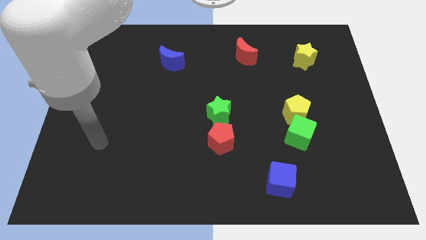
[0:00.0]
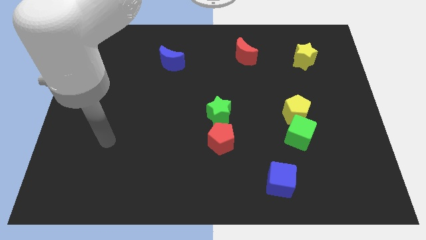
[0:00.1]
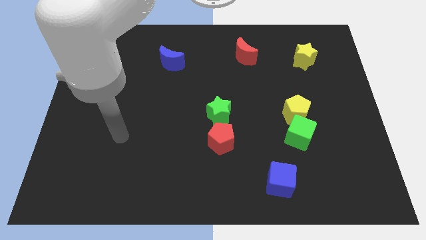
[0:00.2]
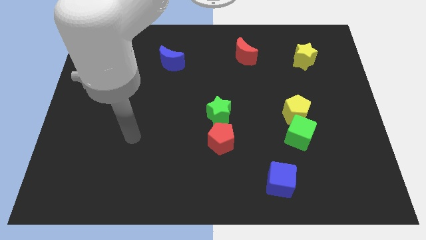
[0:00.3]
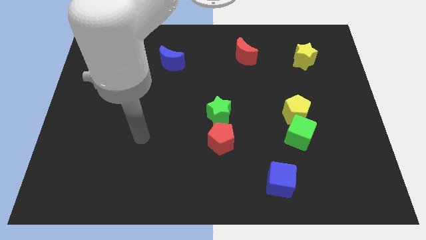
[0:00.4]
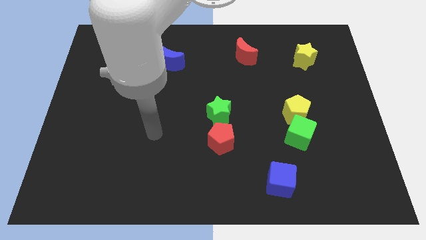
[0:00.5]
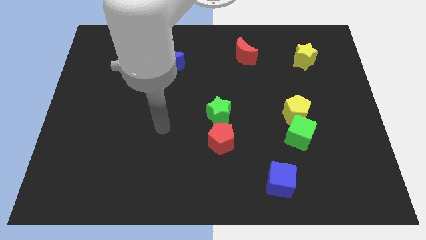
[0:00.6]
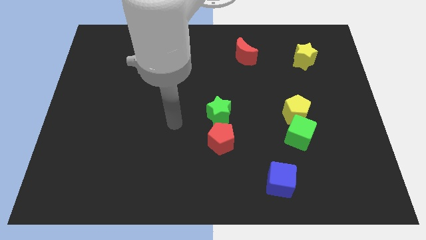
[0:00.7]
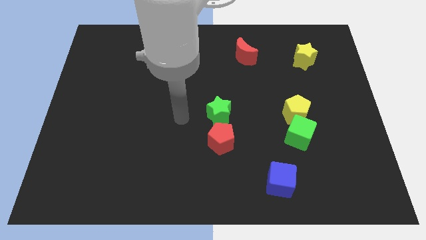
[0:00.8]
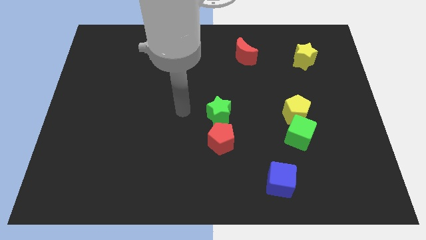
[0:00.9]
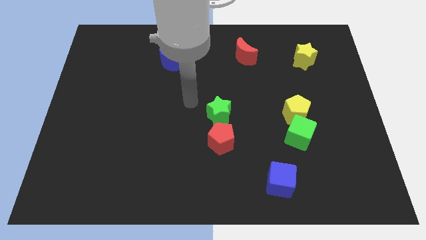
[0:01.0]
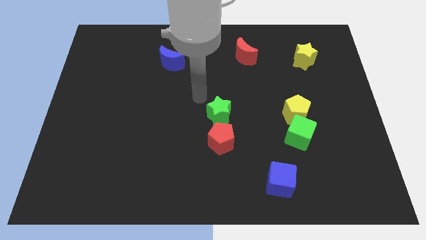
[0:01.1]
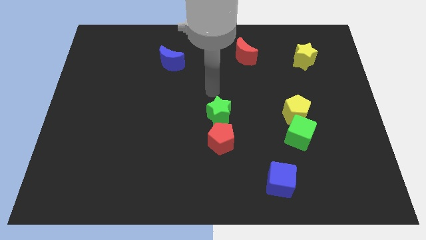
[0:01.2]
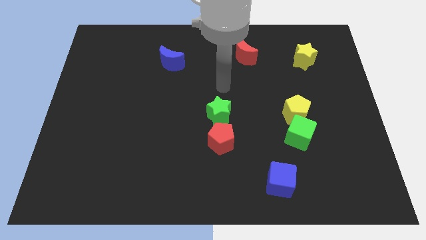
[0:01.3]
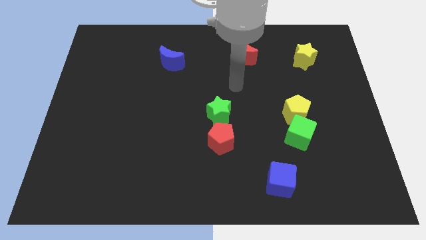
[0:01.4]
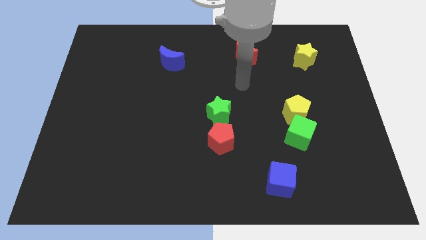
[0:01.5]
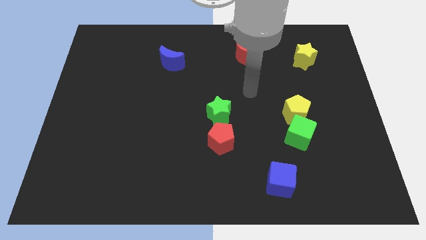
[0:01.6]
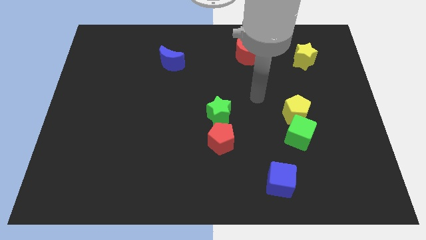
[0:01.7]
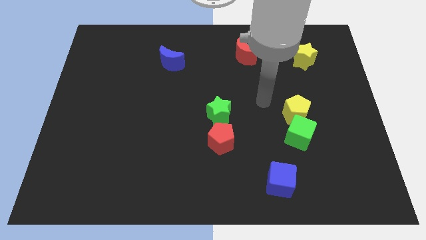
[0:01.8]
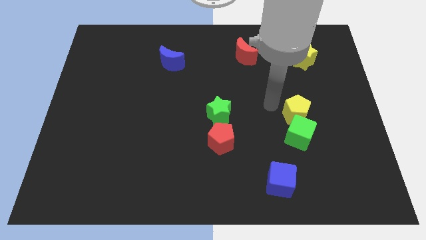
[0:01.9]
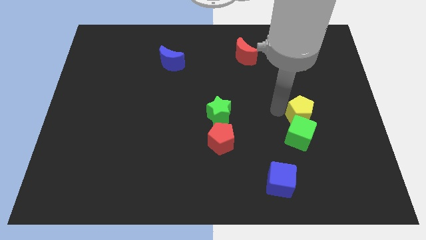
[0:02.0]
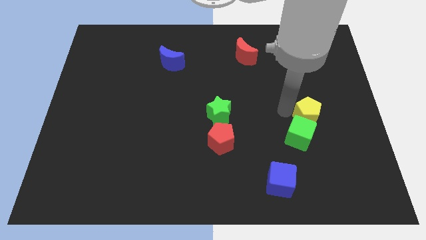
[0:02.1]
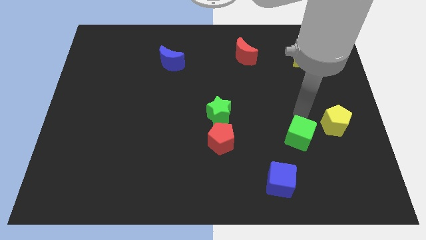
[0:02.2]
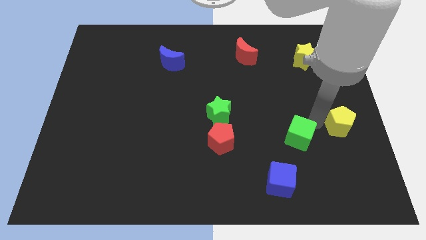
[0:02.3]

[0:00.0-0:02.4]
separate the green cube from the yellow pentagon

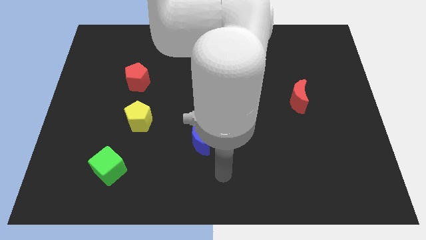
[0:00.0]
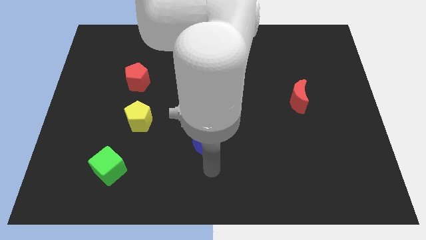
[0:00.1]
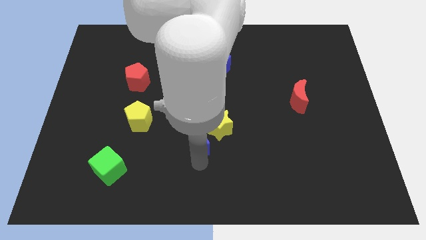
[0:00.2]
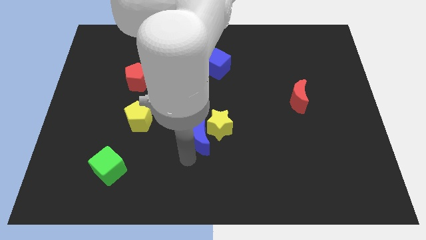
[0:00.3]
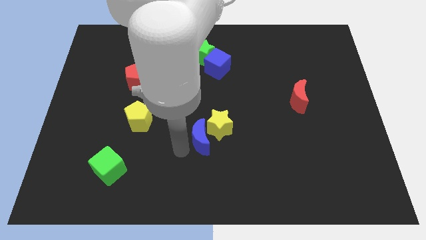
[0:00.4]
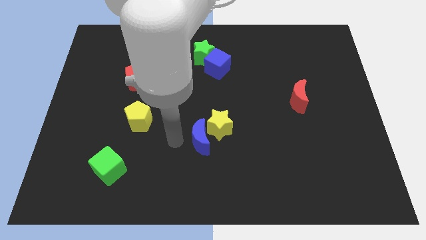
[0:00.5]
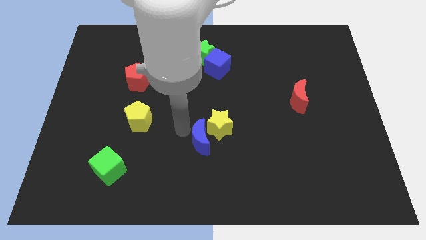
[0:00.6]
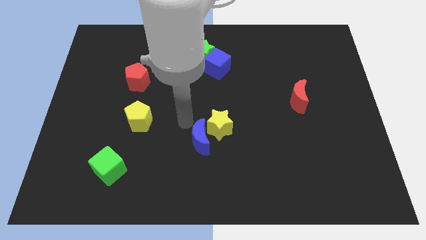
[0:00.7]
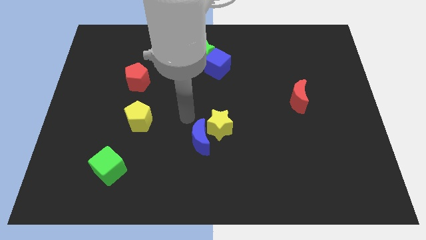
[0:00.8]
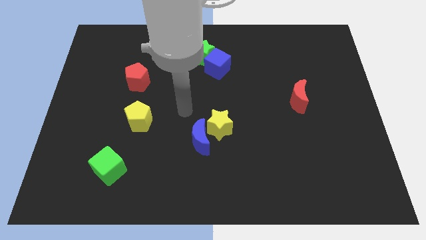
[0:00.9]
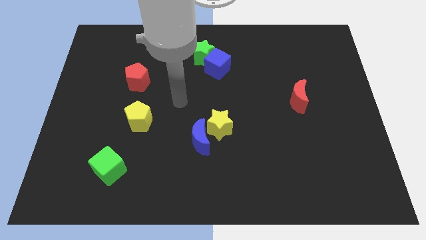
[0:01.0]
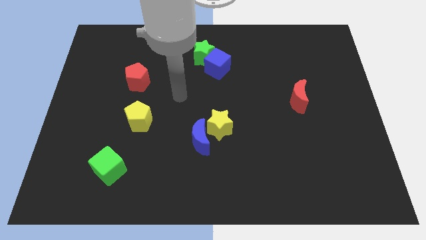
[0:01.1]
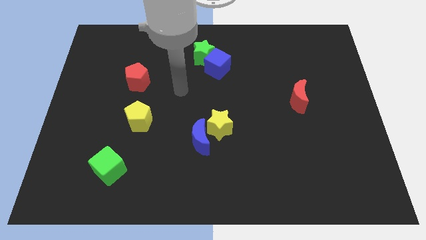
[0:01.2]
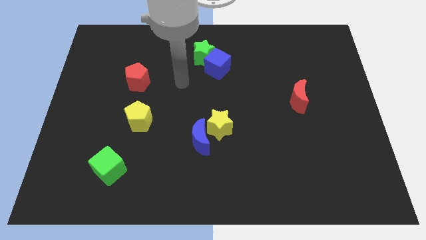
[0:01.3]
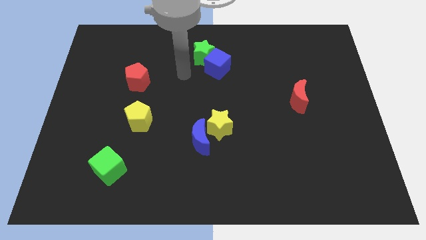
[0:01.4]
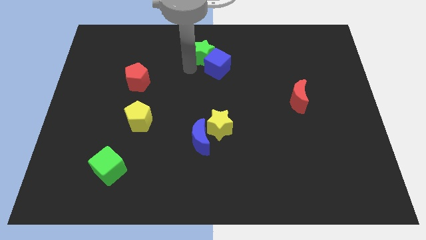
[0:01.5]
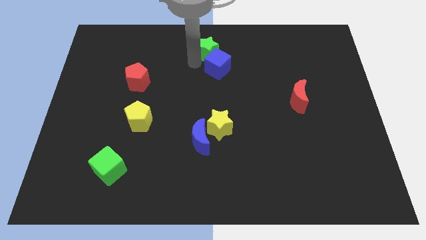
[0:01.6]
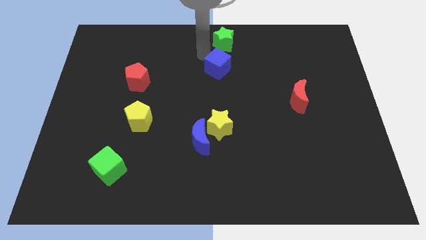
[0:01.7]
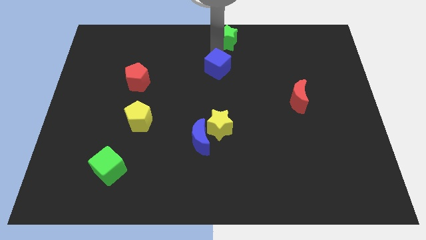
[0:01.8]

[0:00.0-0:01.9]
separate the blue cube from the green star

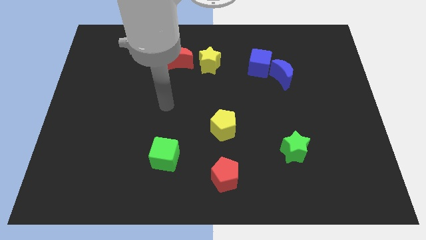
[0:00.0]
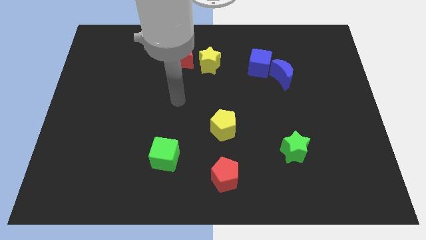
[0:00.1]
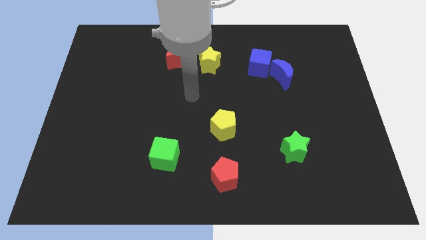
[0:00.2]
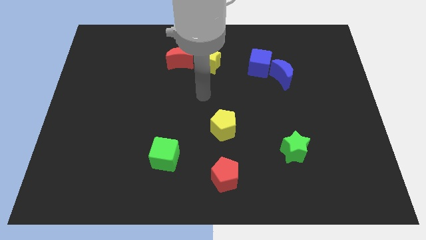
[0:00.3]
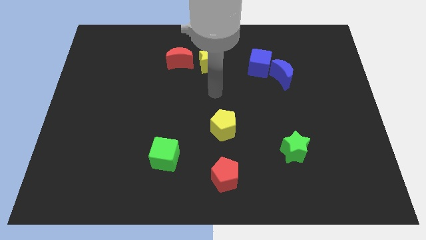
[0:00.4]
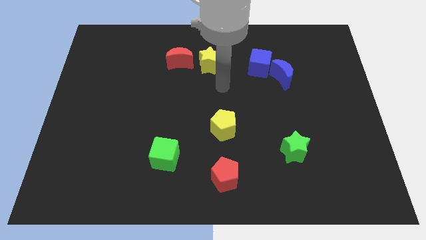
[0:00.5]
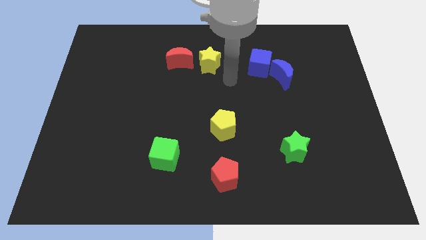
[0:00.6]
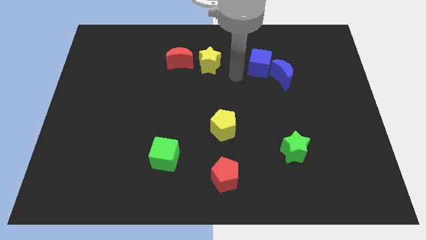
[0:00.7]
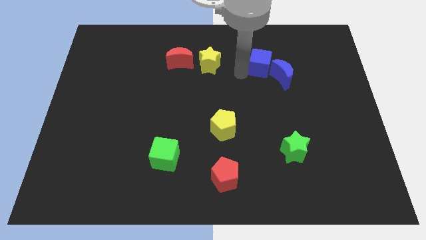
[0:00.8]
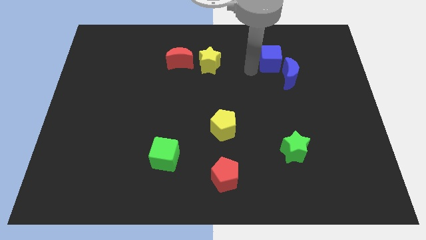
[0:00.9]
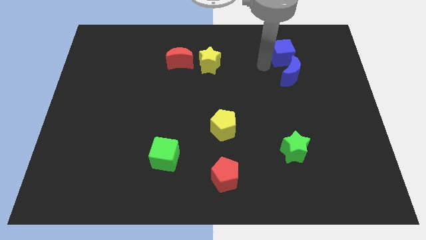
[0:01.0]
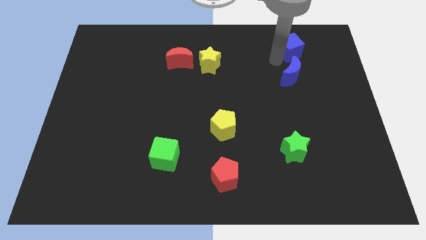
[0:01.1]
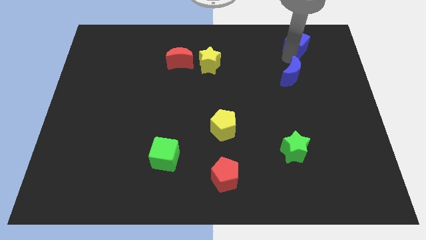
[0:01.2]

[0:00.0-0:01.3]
move the blue moon away from the blue cube

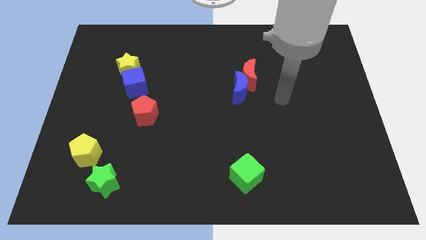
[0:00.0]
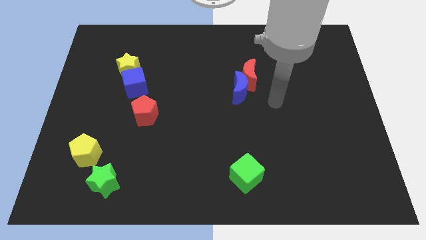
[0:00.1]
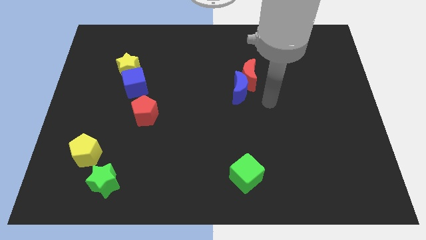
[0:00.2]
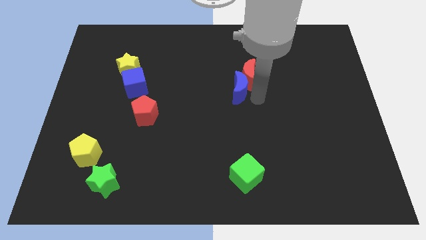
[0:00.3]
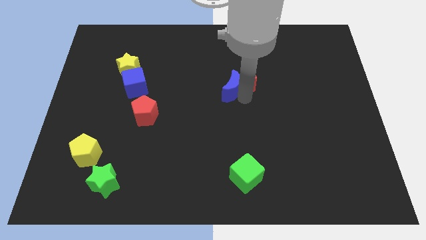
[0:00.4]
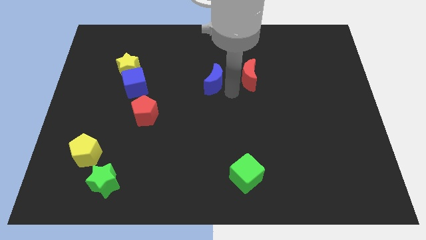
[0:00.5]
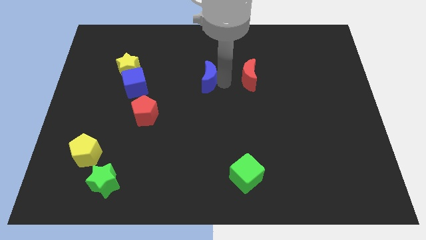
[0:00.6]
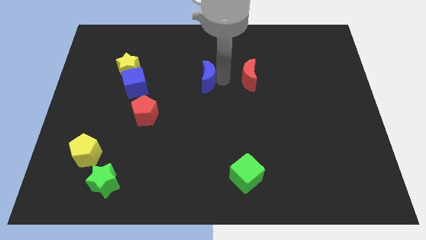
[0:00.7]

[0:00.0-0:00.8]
move the red moon away from the blue moon

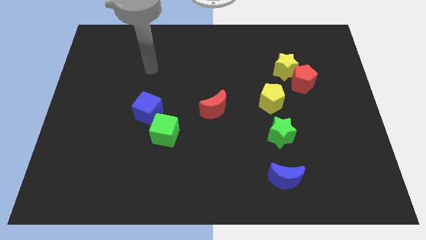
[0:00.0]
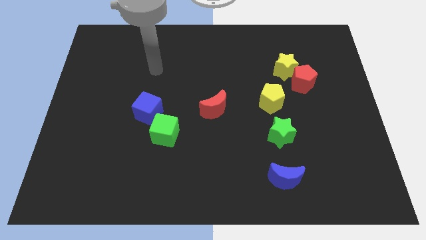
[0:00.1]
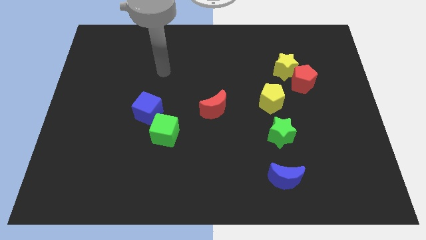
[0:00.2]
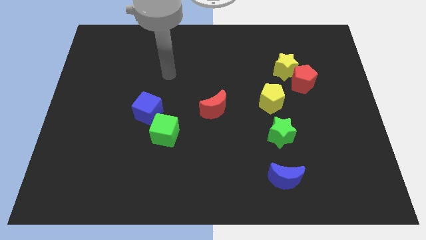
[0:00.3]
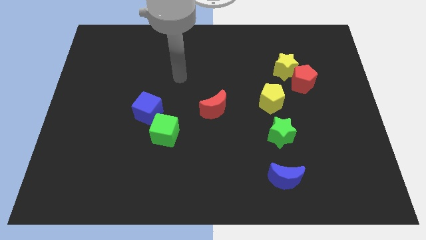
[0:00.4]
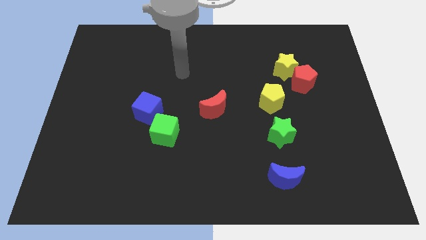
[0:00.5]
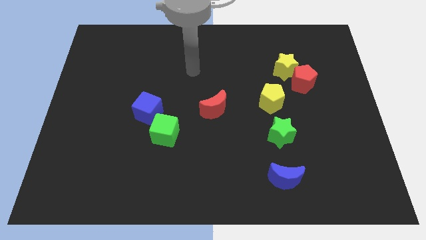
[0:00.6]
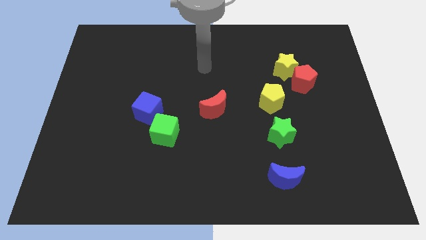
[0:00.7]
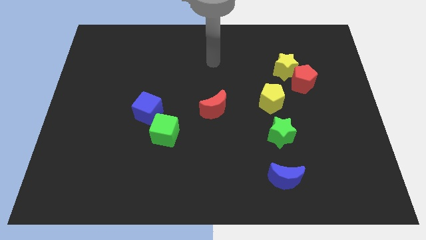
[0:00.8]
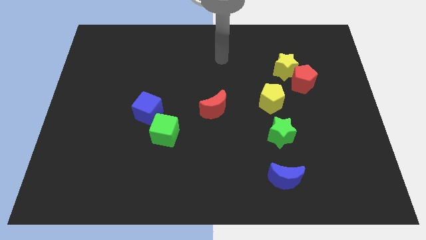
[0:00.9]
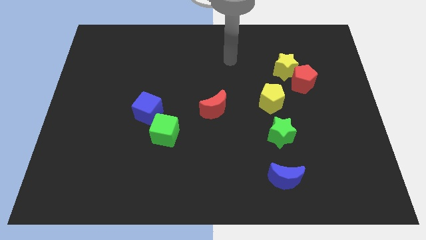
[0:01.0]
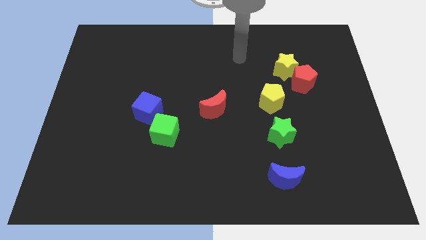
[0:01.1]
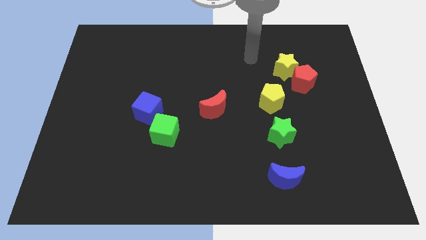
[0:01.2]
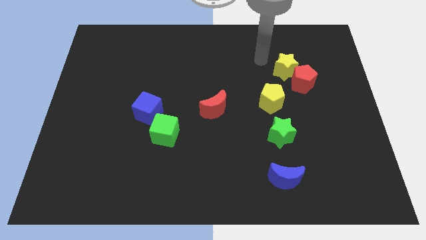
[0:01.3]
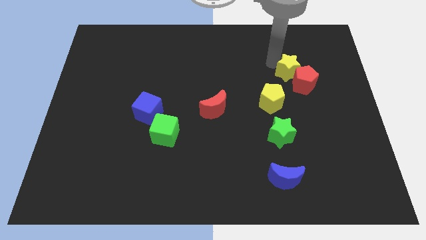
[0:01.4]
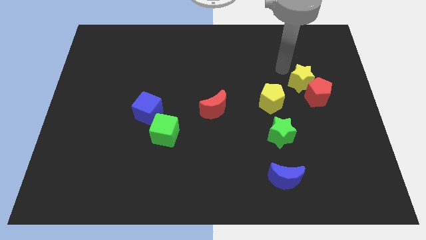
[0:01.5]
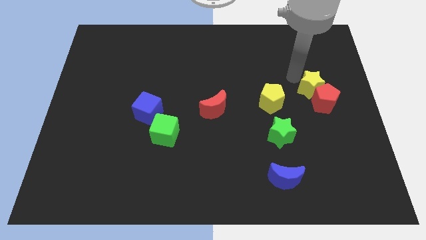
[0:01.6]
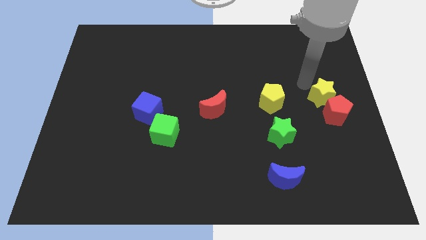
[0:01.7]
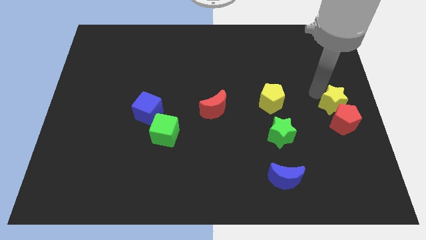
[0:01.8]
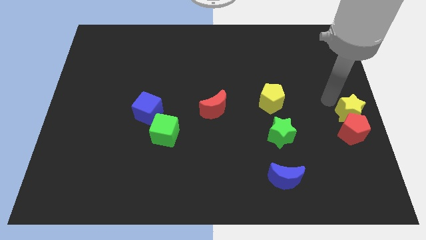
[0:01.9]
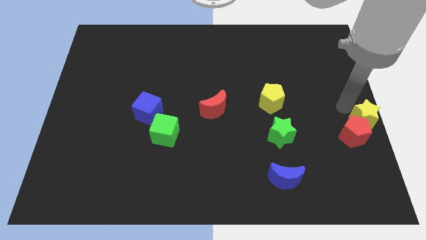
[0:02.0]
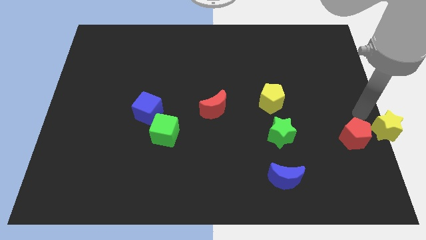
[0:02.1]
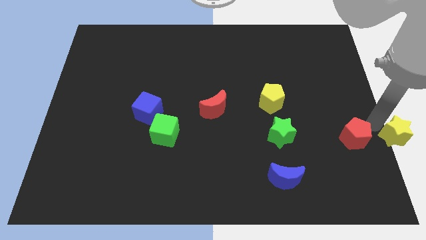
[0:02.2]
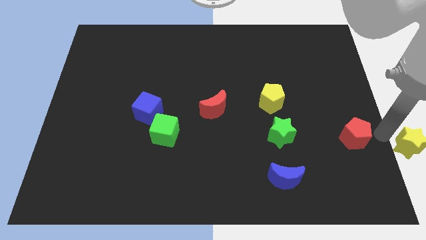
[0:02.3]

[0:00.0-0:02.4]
move the red pentagon away from the yellow star

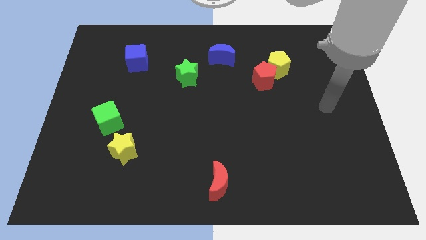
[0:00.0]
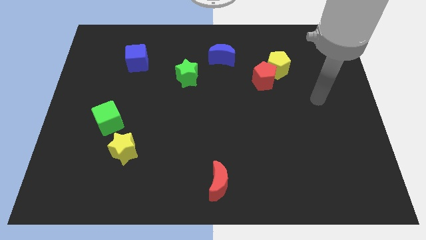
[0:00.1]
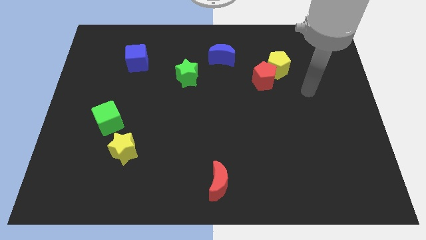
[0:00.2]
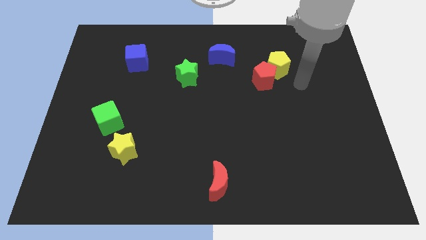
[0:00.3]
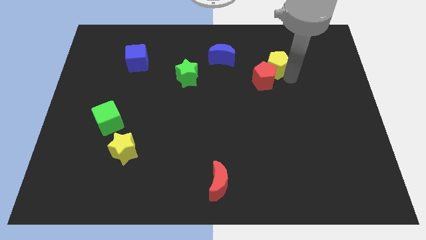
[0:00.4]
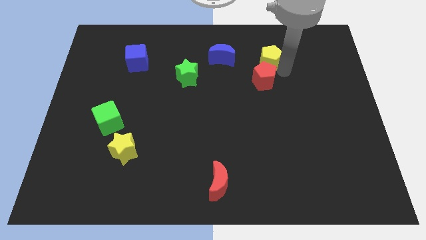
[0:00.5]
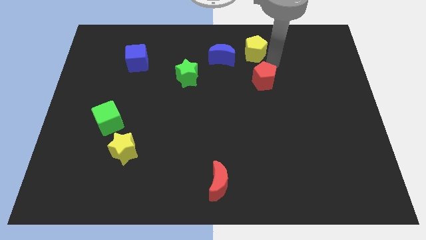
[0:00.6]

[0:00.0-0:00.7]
pull the red pentagon apart from the yellow pentagon

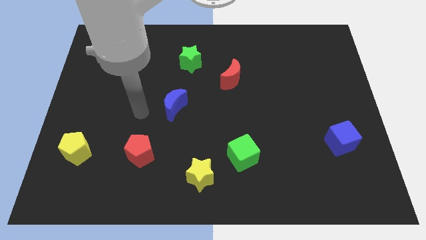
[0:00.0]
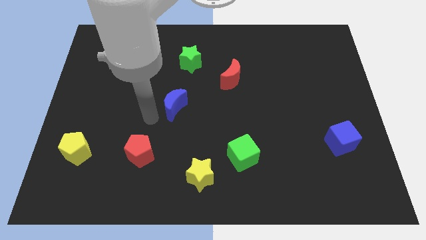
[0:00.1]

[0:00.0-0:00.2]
separate the green cube from the yellow star
